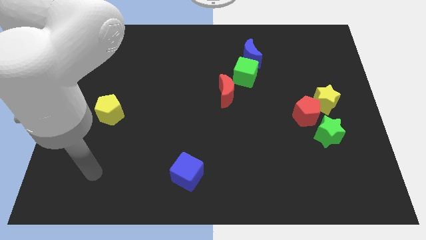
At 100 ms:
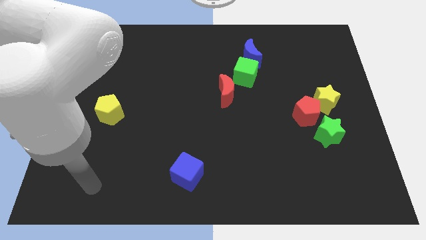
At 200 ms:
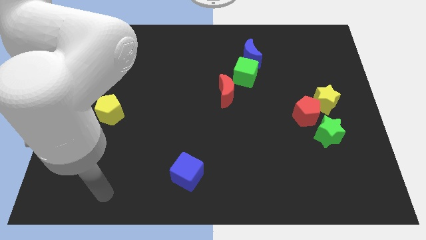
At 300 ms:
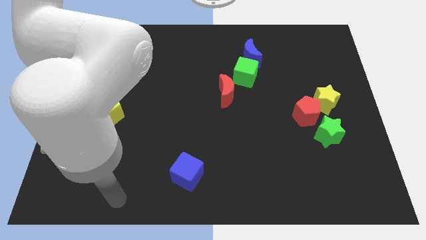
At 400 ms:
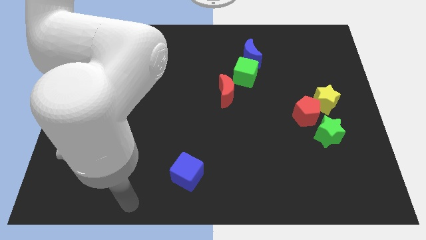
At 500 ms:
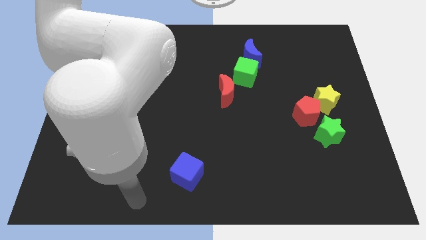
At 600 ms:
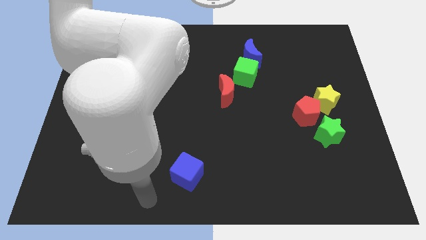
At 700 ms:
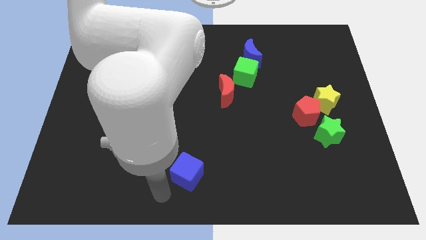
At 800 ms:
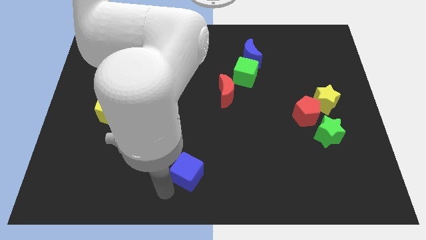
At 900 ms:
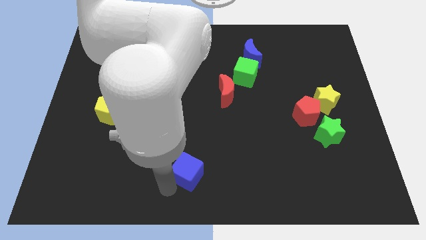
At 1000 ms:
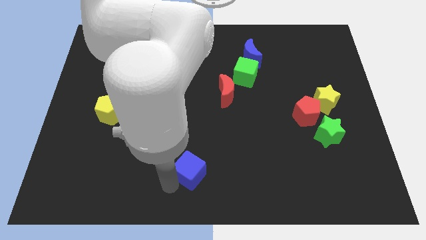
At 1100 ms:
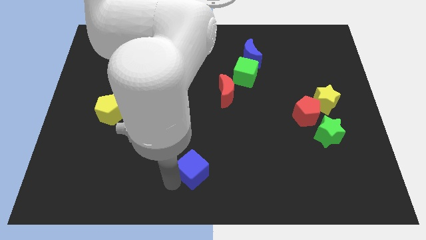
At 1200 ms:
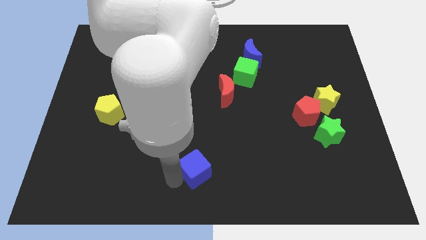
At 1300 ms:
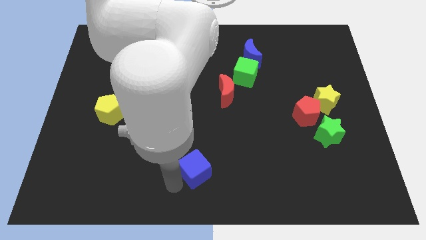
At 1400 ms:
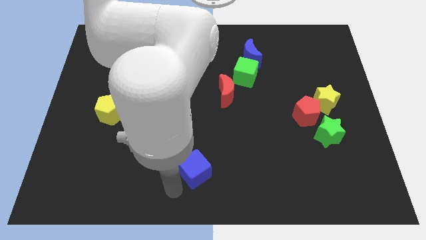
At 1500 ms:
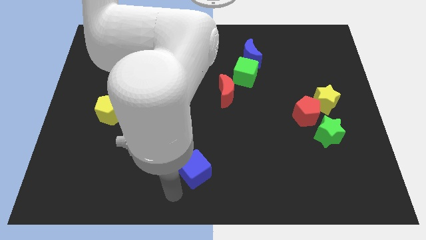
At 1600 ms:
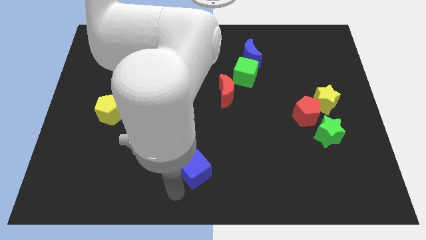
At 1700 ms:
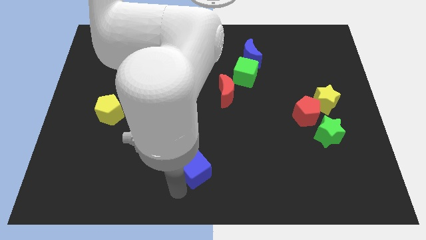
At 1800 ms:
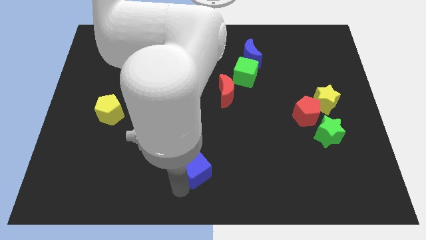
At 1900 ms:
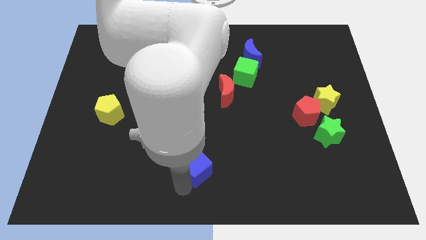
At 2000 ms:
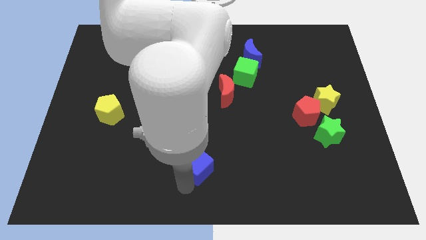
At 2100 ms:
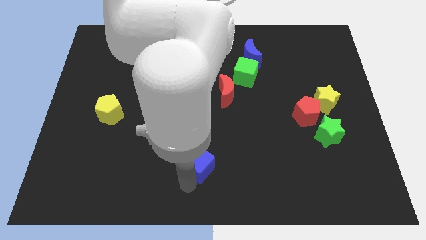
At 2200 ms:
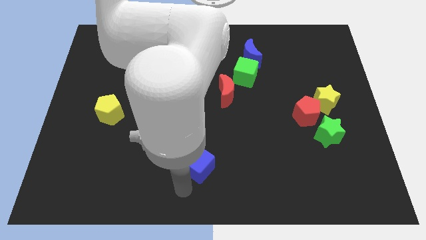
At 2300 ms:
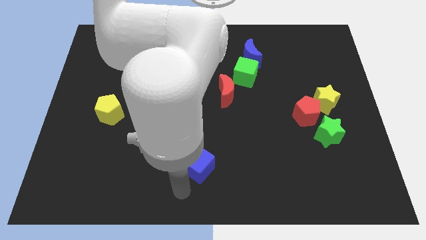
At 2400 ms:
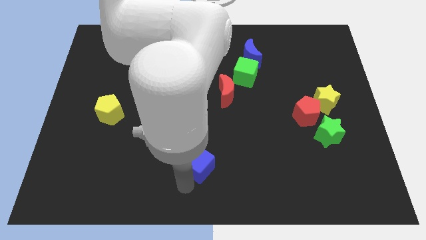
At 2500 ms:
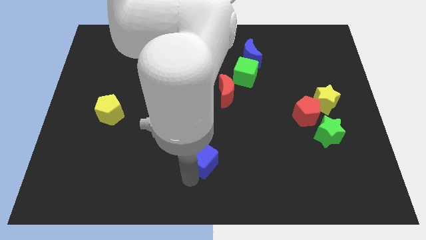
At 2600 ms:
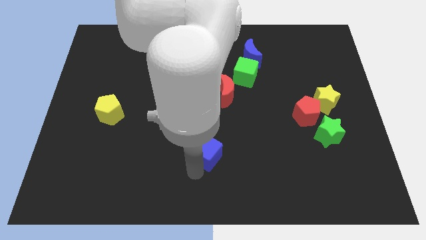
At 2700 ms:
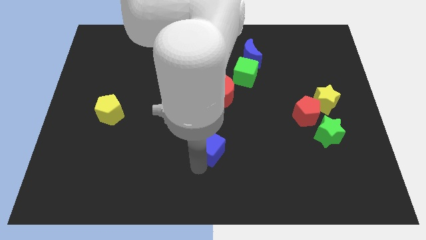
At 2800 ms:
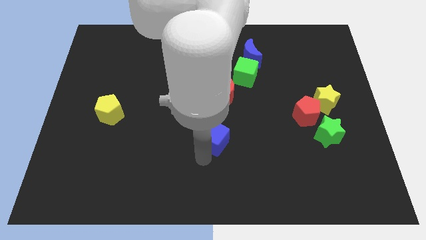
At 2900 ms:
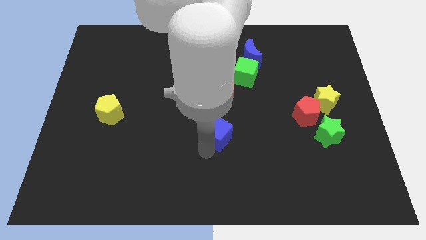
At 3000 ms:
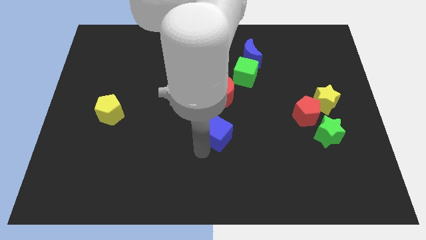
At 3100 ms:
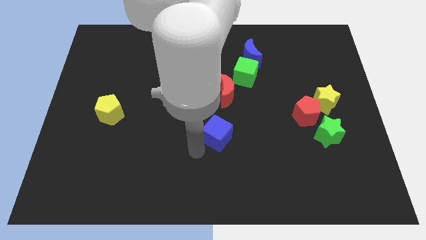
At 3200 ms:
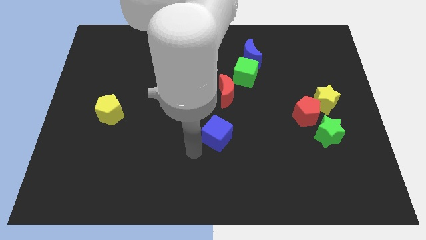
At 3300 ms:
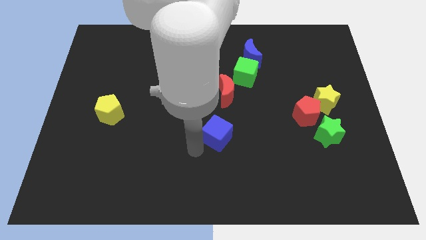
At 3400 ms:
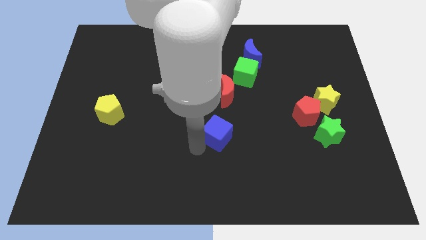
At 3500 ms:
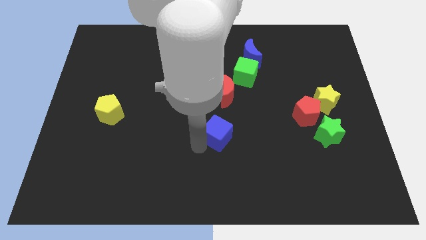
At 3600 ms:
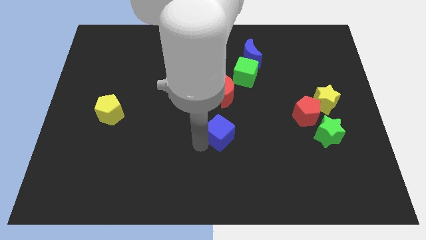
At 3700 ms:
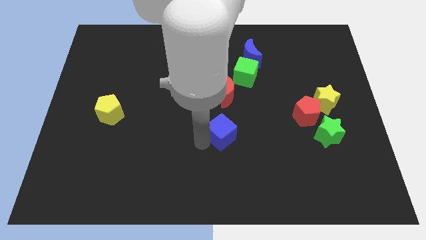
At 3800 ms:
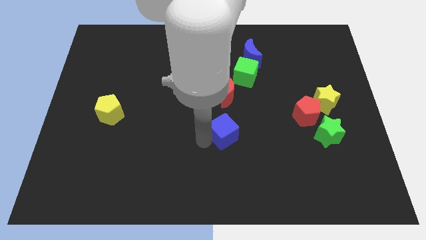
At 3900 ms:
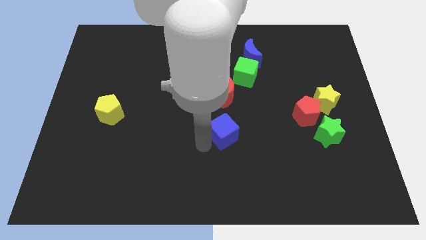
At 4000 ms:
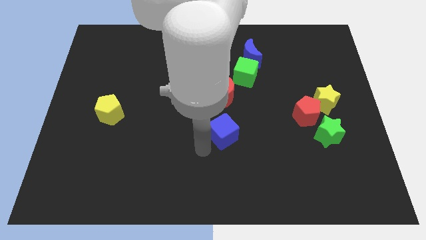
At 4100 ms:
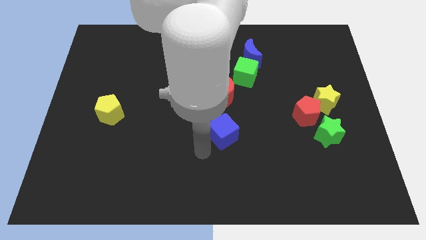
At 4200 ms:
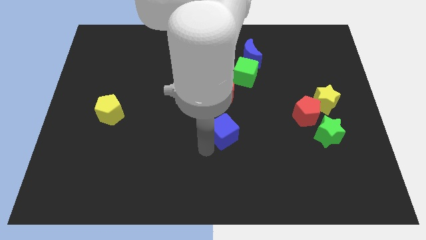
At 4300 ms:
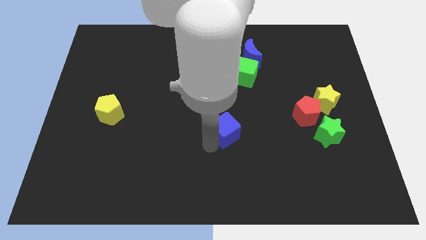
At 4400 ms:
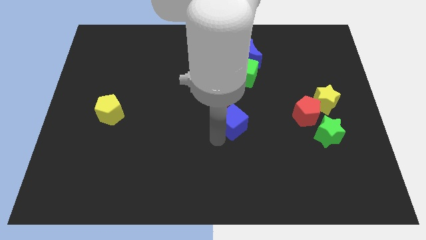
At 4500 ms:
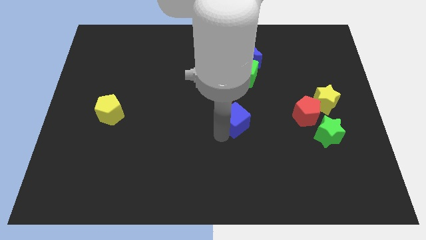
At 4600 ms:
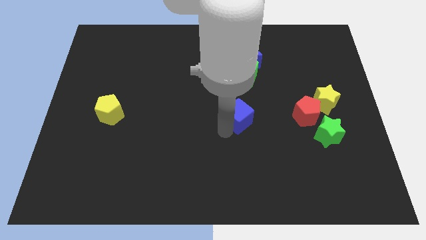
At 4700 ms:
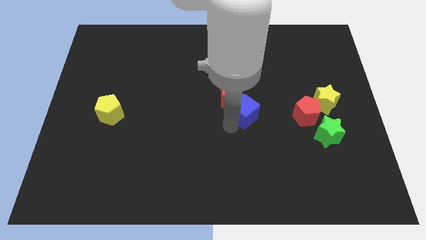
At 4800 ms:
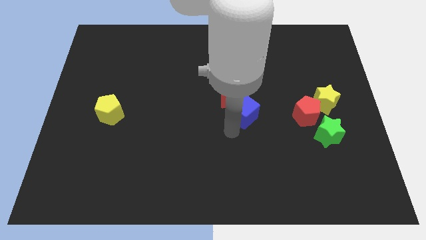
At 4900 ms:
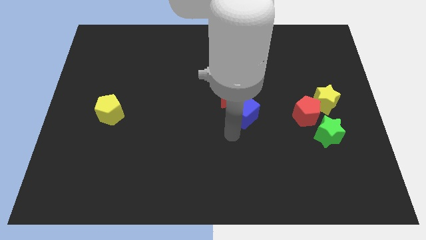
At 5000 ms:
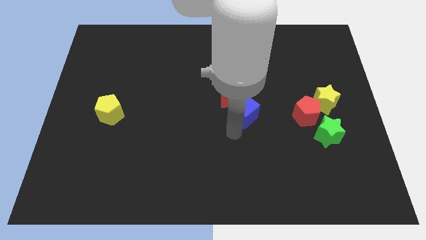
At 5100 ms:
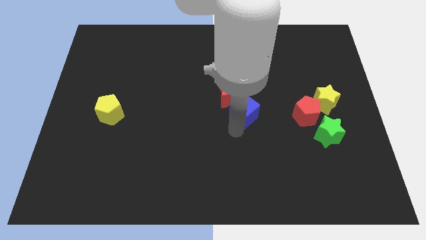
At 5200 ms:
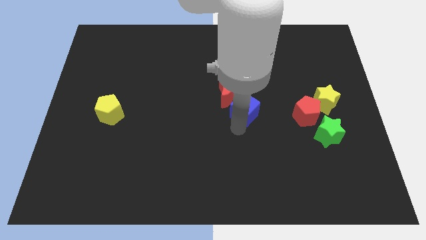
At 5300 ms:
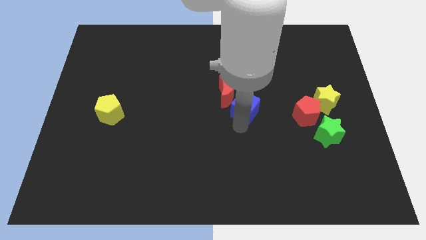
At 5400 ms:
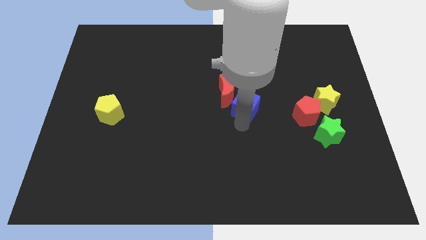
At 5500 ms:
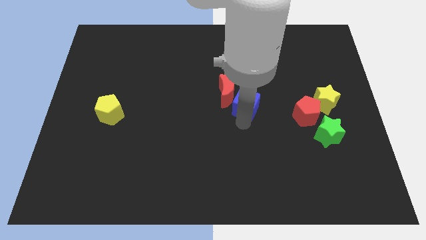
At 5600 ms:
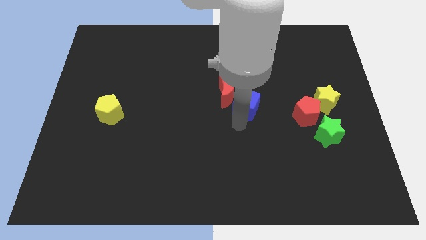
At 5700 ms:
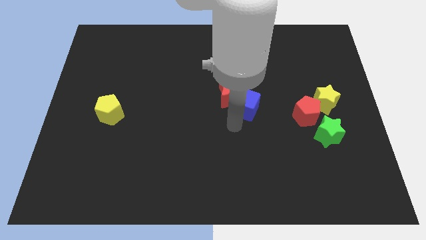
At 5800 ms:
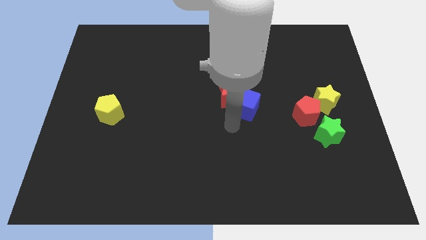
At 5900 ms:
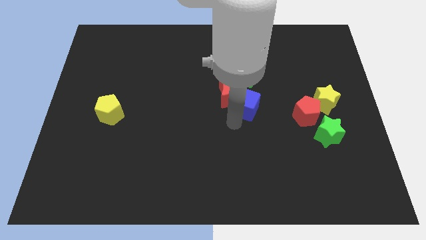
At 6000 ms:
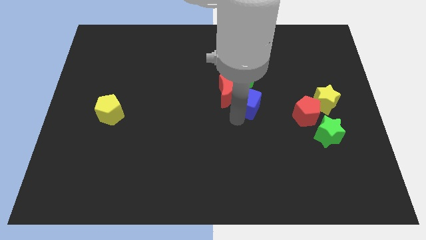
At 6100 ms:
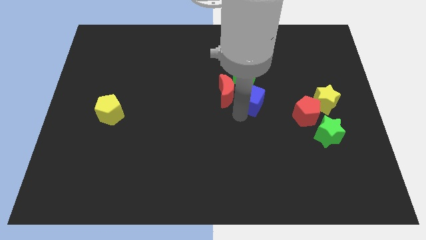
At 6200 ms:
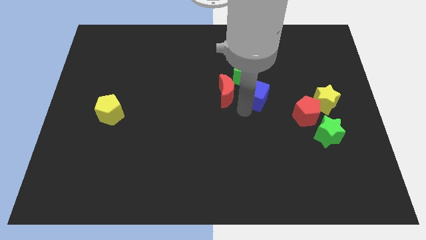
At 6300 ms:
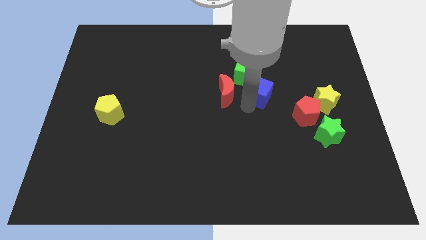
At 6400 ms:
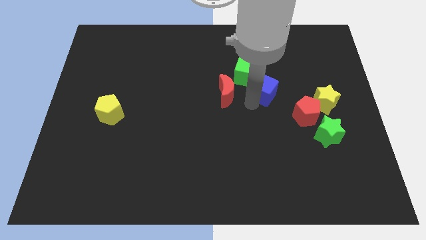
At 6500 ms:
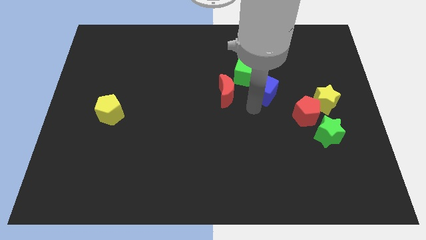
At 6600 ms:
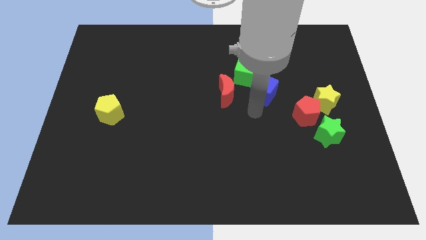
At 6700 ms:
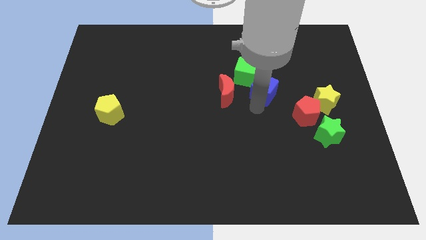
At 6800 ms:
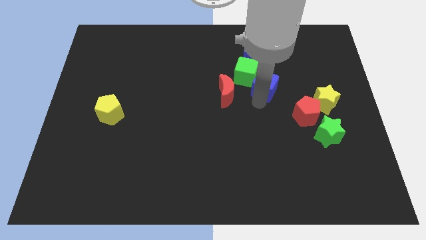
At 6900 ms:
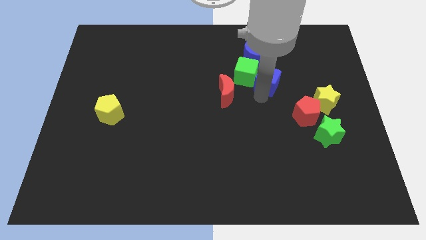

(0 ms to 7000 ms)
put the blue cube to the bottom right side of the blue moon
